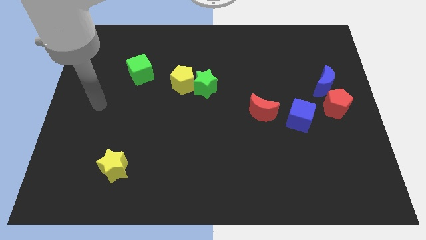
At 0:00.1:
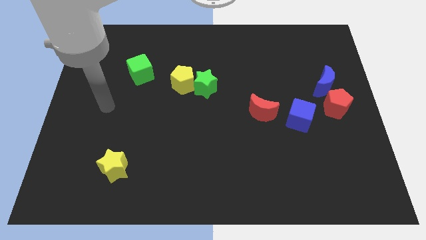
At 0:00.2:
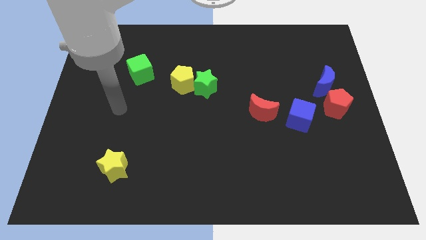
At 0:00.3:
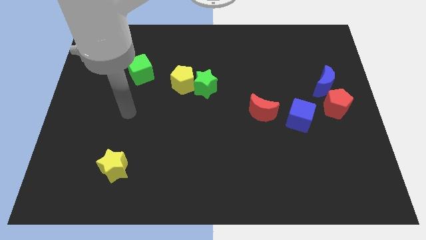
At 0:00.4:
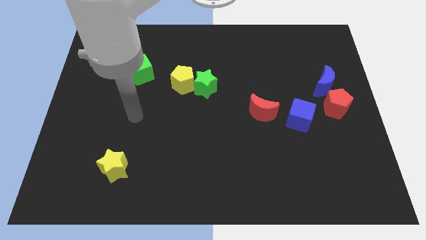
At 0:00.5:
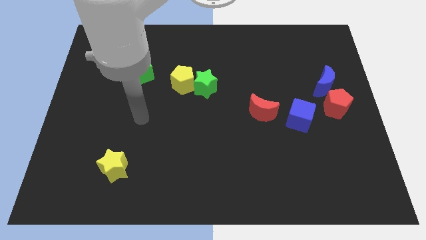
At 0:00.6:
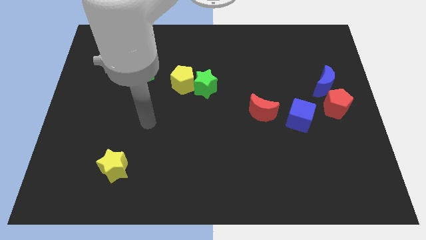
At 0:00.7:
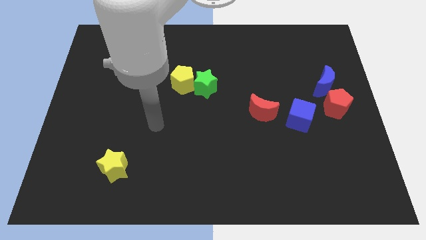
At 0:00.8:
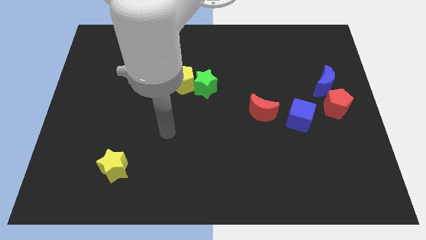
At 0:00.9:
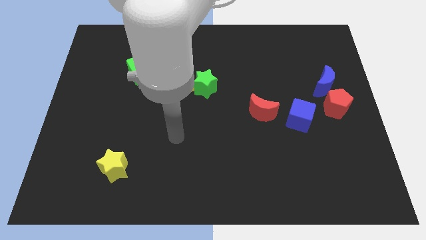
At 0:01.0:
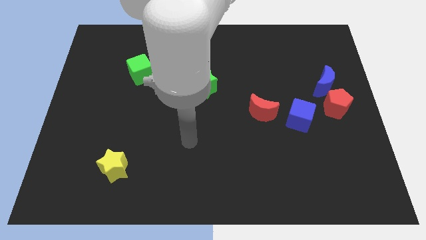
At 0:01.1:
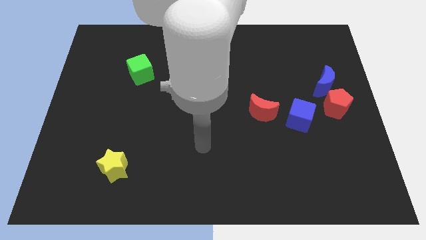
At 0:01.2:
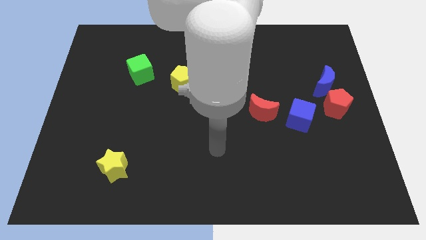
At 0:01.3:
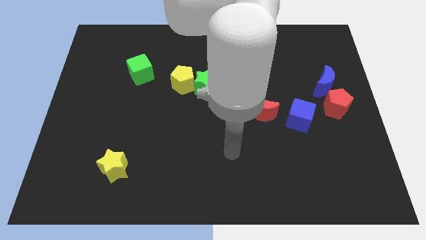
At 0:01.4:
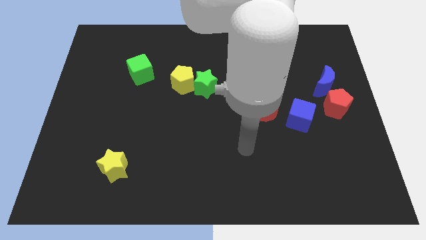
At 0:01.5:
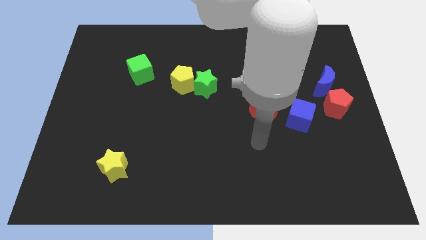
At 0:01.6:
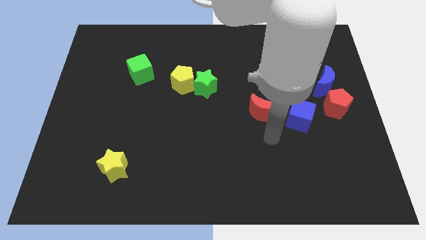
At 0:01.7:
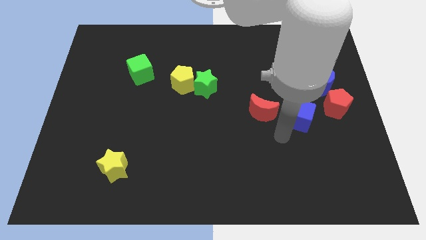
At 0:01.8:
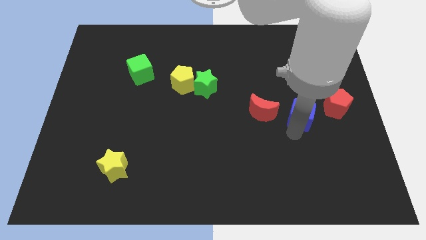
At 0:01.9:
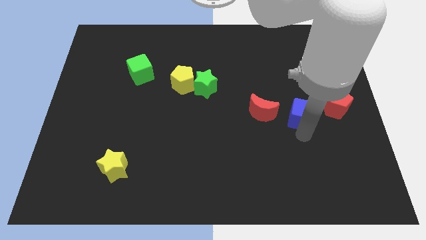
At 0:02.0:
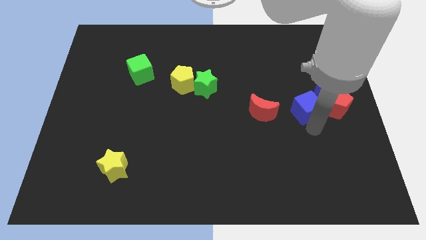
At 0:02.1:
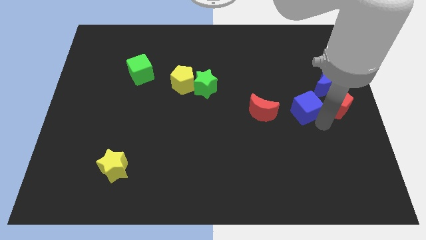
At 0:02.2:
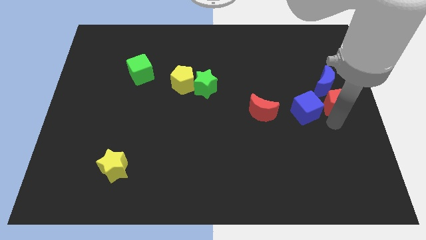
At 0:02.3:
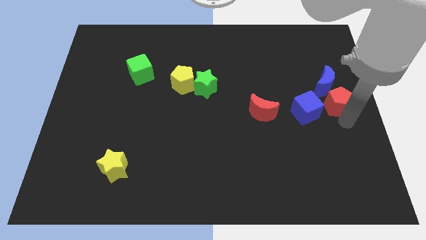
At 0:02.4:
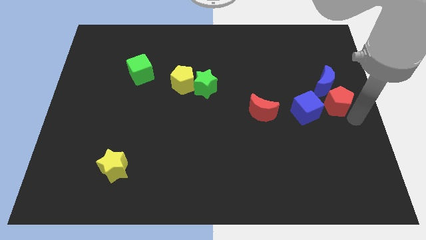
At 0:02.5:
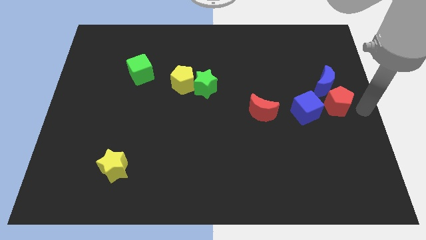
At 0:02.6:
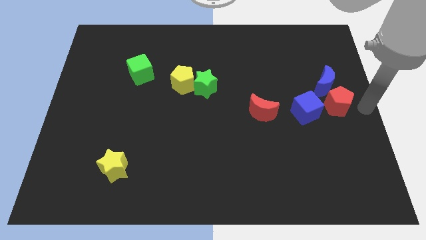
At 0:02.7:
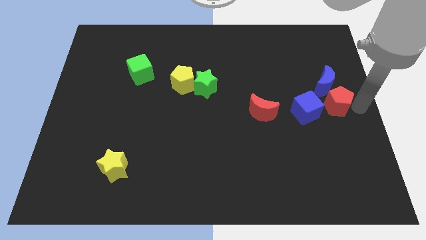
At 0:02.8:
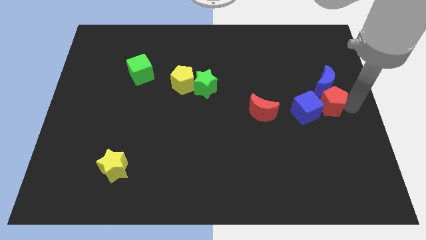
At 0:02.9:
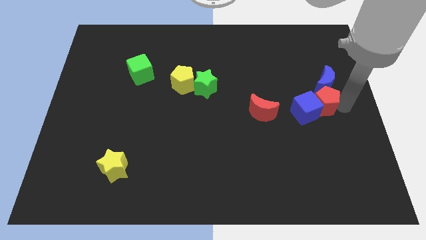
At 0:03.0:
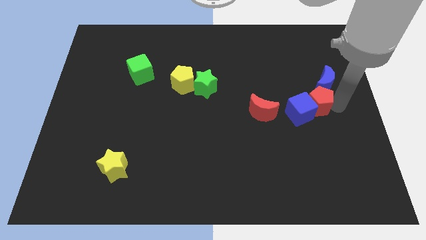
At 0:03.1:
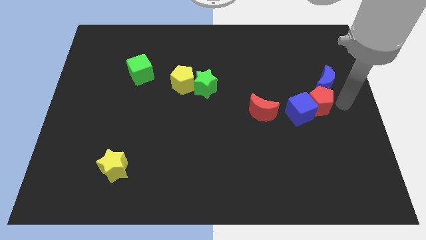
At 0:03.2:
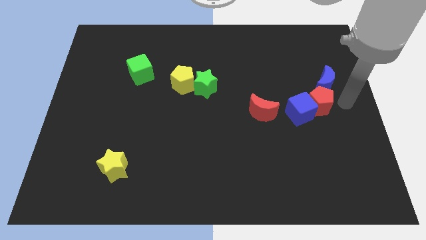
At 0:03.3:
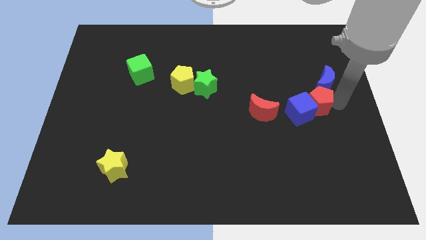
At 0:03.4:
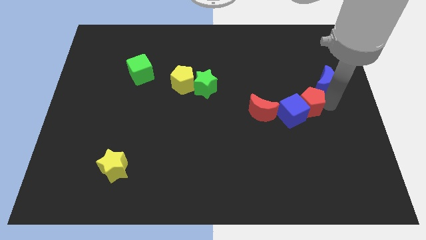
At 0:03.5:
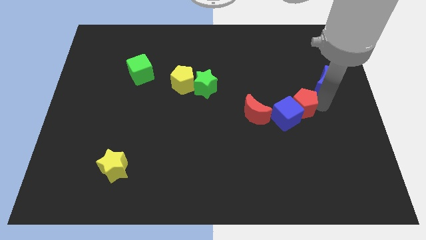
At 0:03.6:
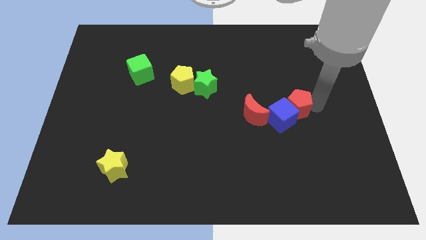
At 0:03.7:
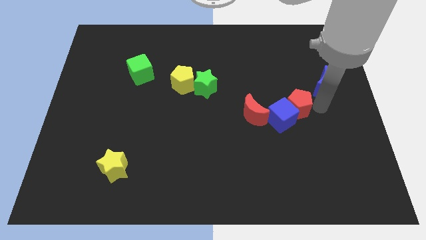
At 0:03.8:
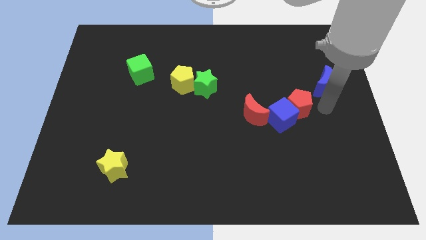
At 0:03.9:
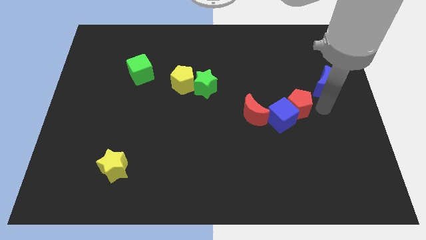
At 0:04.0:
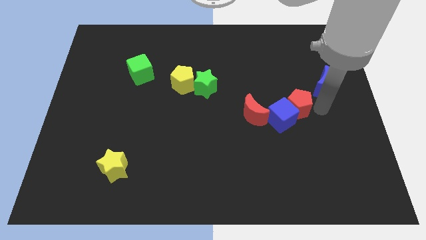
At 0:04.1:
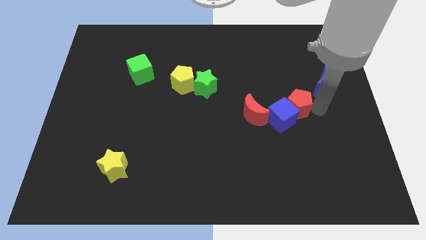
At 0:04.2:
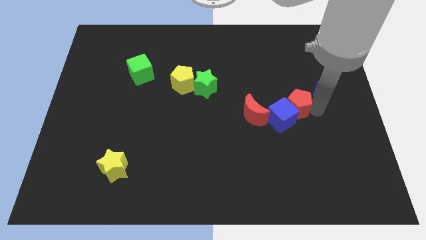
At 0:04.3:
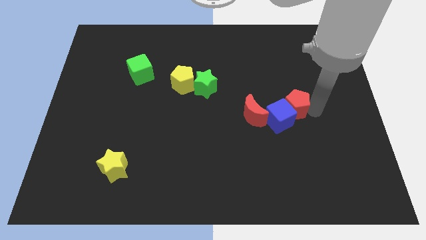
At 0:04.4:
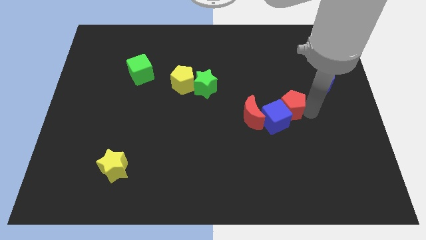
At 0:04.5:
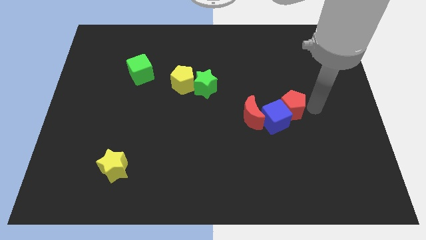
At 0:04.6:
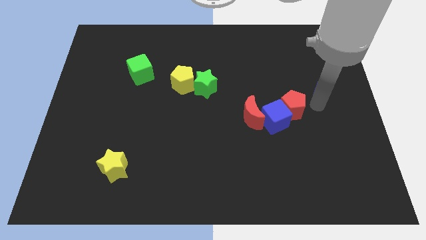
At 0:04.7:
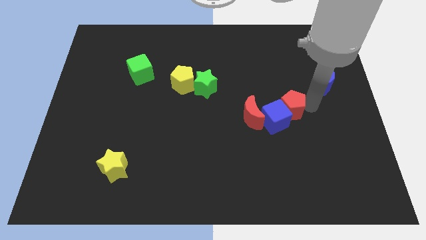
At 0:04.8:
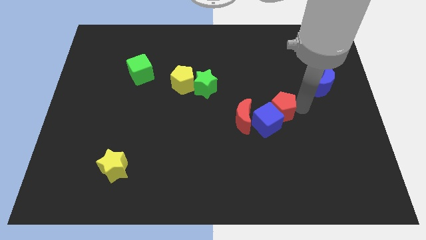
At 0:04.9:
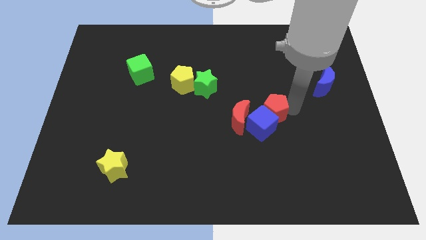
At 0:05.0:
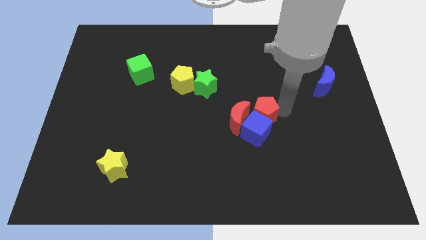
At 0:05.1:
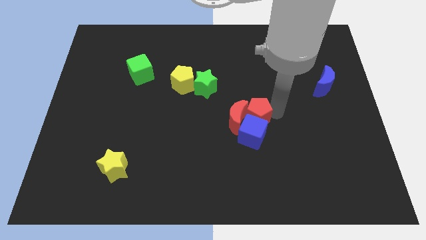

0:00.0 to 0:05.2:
push the red pentagon next to the red moon

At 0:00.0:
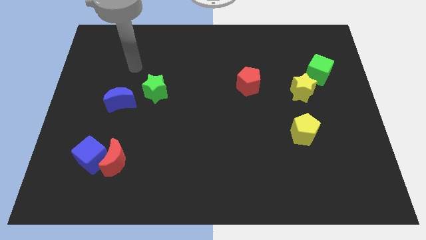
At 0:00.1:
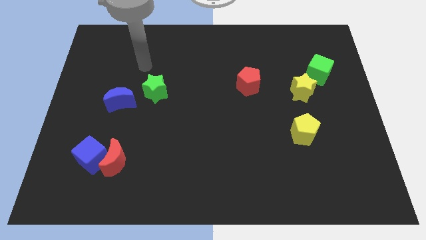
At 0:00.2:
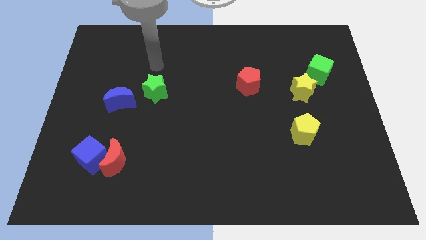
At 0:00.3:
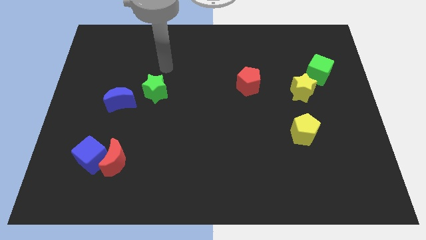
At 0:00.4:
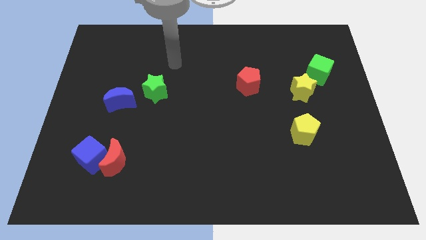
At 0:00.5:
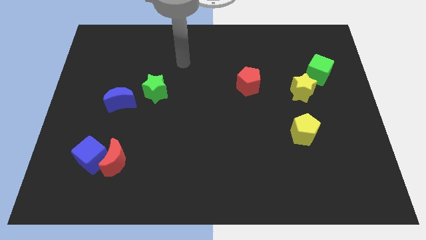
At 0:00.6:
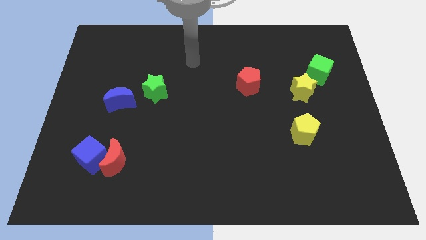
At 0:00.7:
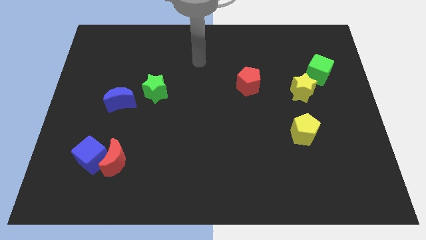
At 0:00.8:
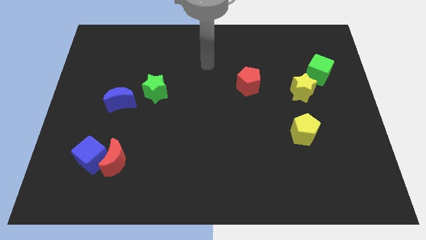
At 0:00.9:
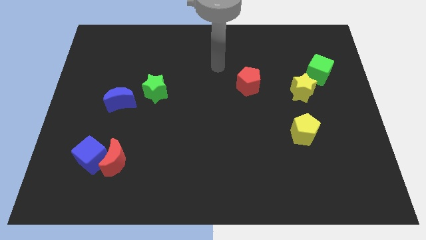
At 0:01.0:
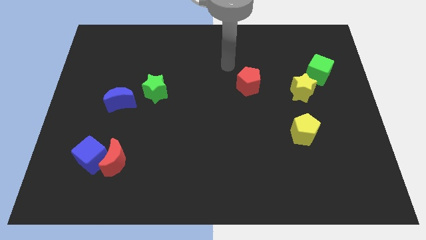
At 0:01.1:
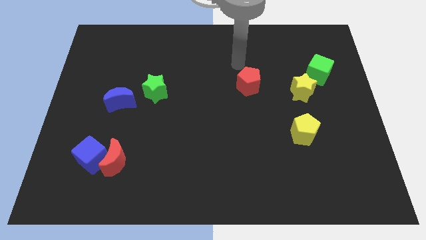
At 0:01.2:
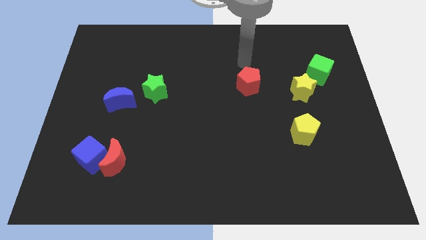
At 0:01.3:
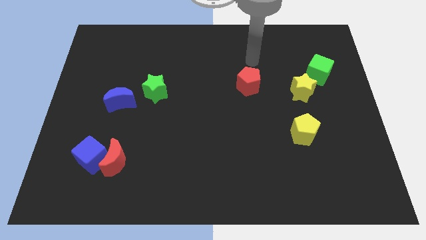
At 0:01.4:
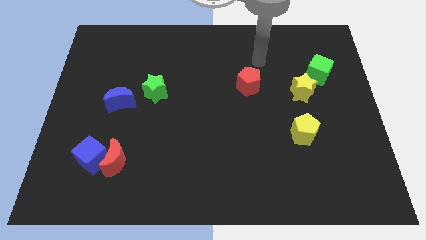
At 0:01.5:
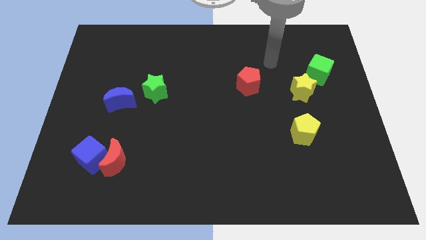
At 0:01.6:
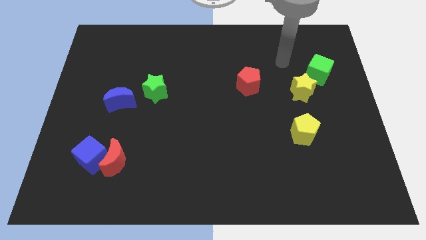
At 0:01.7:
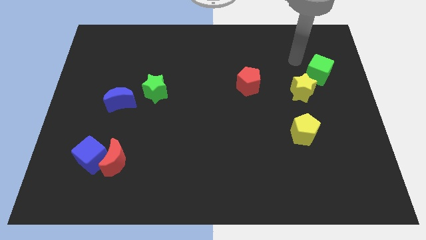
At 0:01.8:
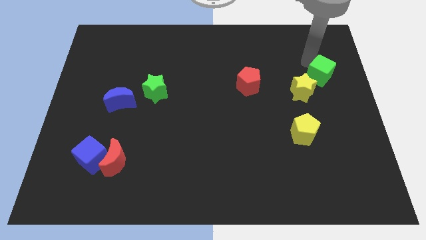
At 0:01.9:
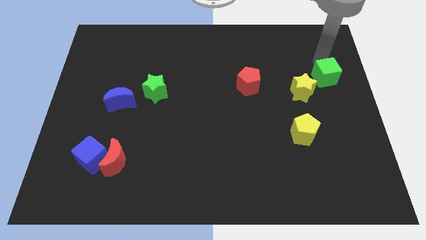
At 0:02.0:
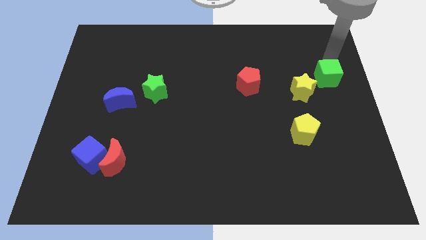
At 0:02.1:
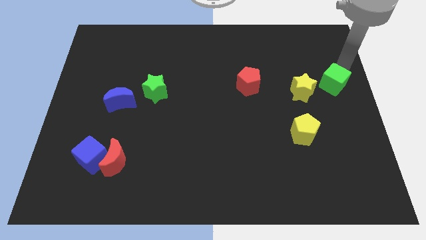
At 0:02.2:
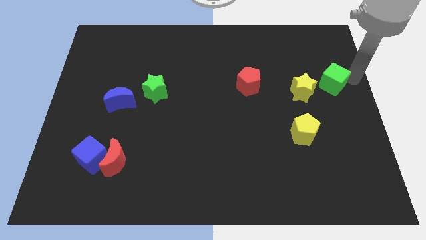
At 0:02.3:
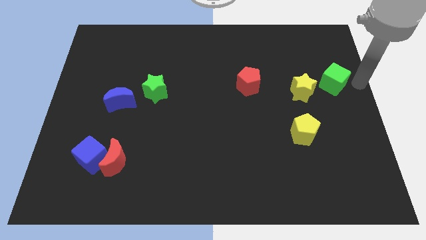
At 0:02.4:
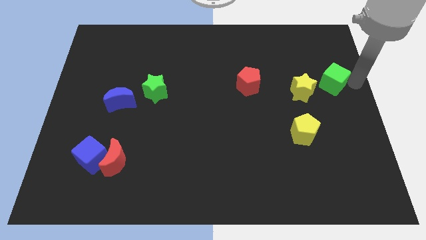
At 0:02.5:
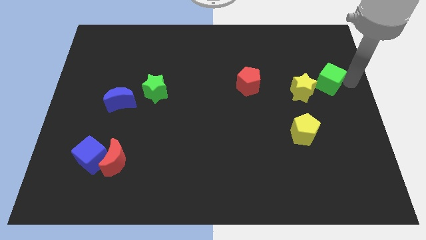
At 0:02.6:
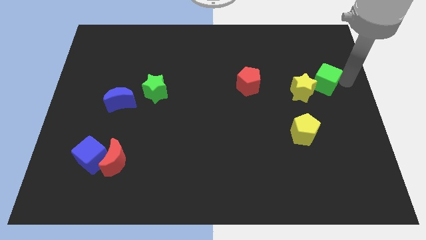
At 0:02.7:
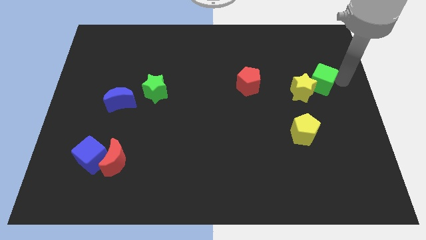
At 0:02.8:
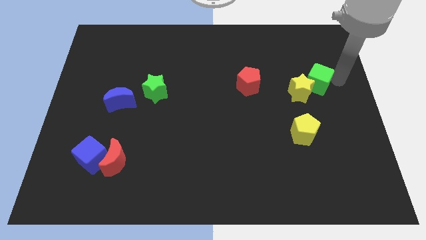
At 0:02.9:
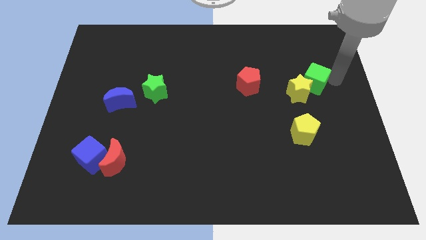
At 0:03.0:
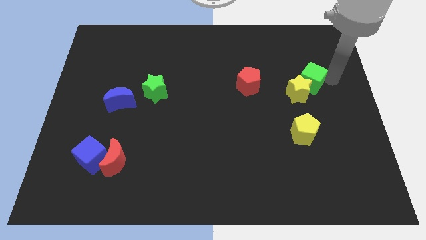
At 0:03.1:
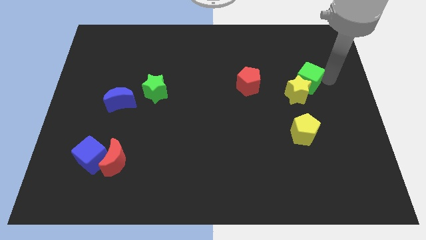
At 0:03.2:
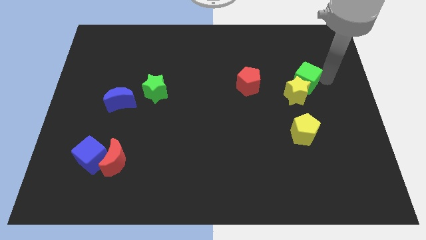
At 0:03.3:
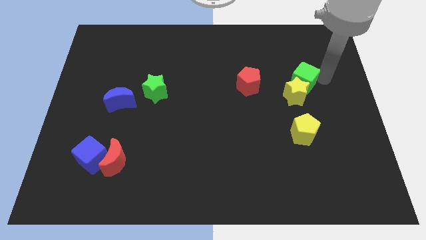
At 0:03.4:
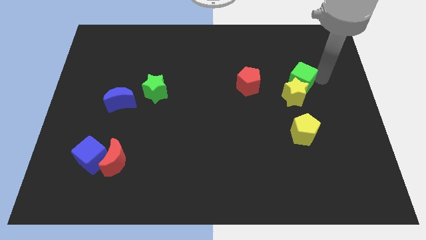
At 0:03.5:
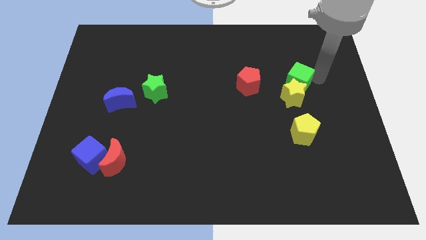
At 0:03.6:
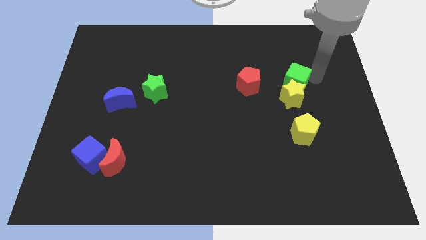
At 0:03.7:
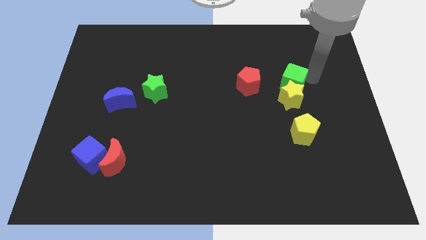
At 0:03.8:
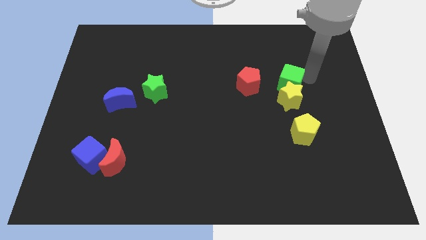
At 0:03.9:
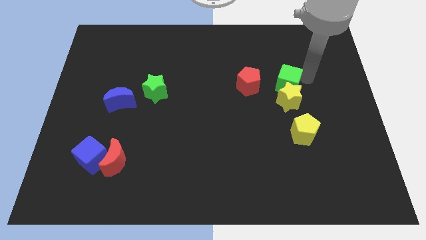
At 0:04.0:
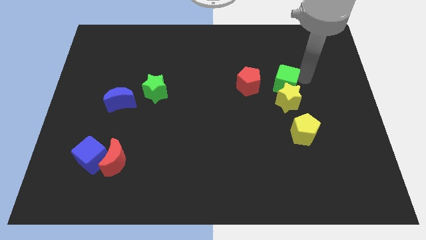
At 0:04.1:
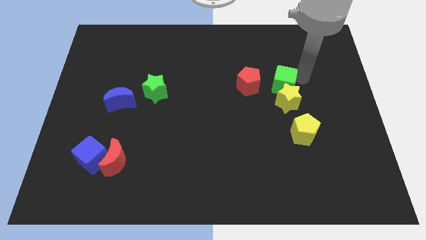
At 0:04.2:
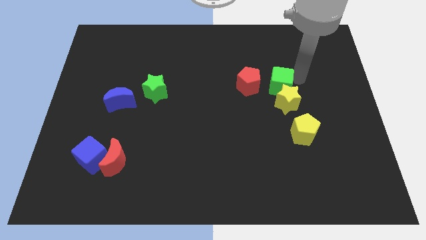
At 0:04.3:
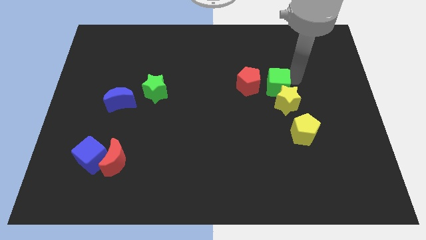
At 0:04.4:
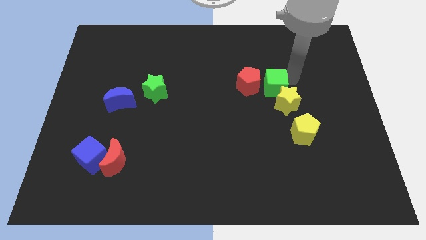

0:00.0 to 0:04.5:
move the green cube towards the red pentagon
